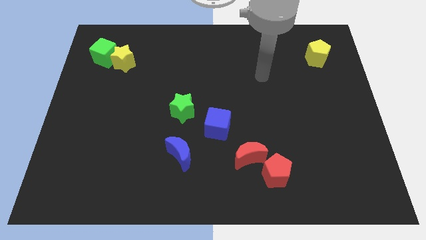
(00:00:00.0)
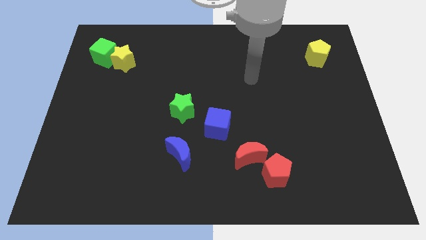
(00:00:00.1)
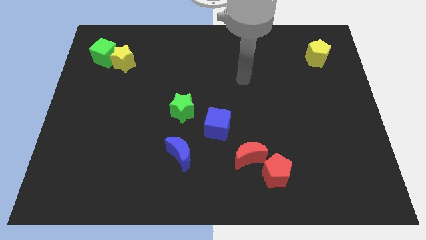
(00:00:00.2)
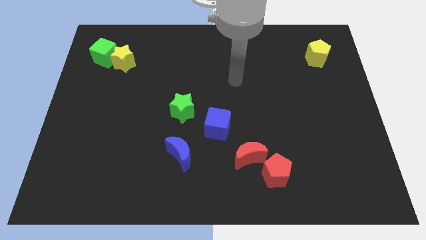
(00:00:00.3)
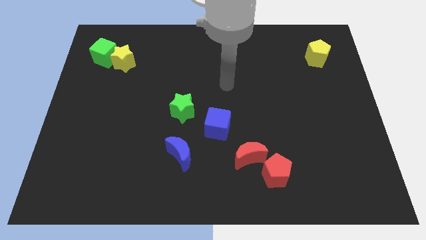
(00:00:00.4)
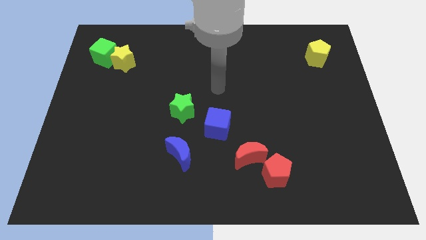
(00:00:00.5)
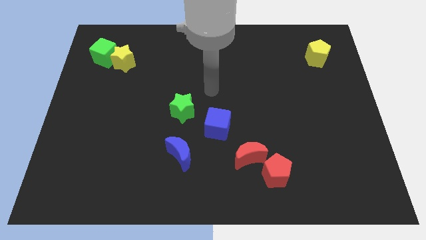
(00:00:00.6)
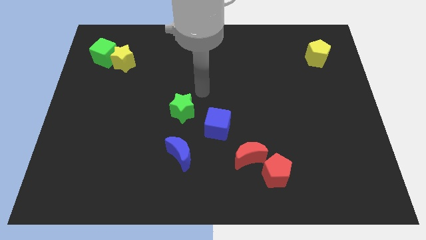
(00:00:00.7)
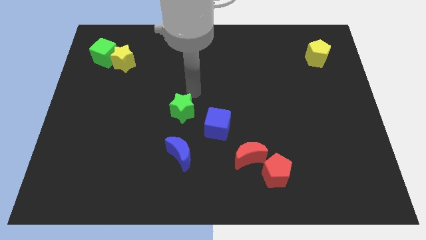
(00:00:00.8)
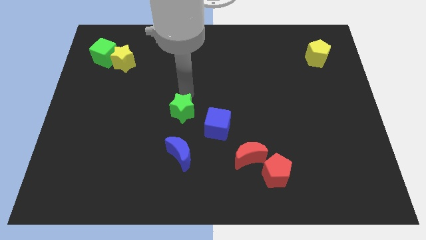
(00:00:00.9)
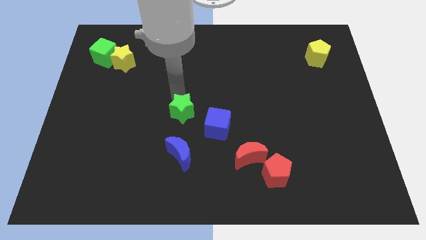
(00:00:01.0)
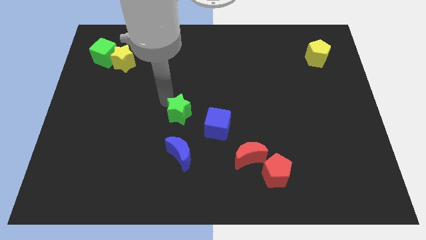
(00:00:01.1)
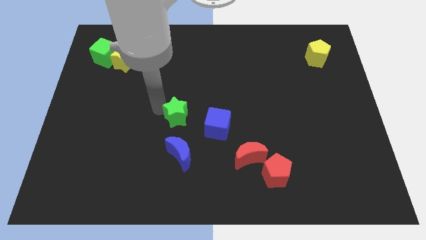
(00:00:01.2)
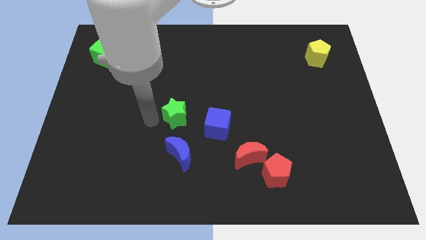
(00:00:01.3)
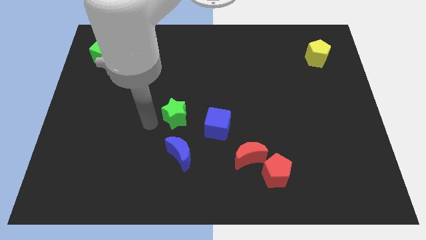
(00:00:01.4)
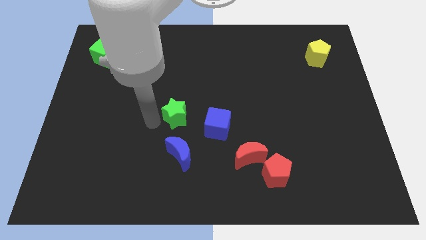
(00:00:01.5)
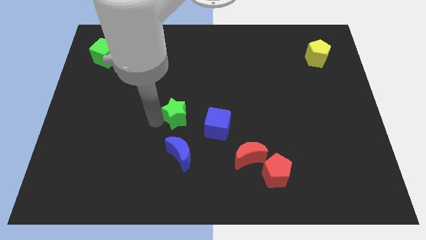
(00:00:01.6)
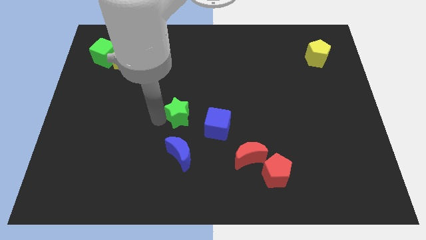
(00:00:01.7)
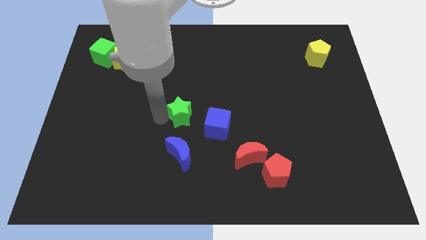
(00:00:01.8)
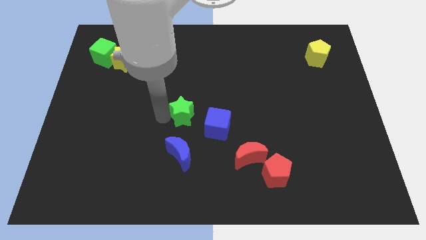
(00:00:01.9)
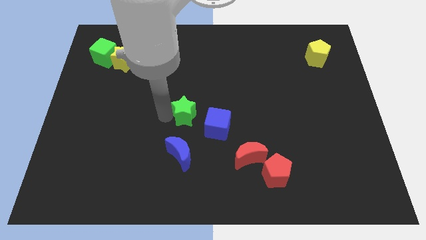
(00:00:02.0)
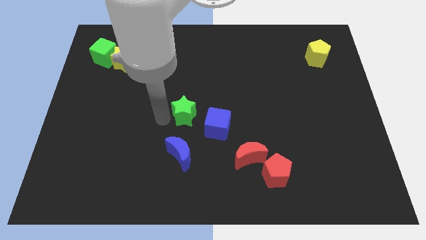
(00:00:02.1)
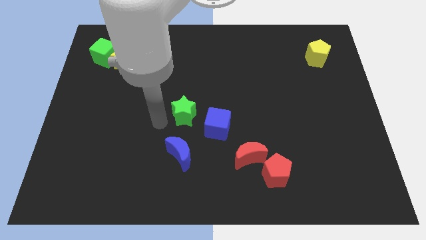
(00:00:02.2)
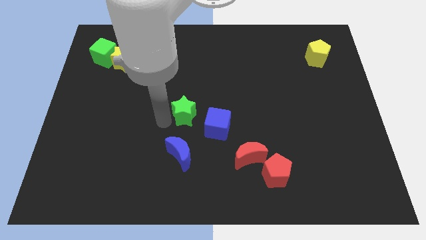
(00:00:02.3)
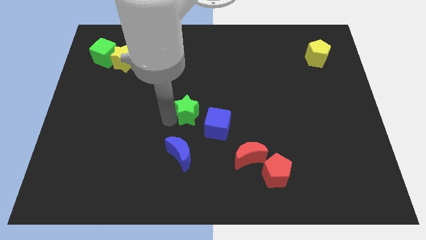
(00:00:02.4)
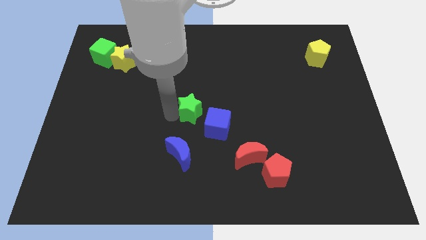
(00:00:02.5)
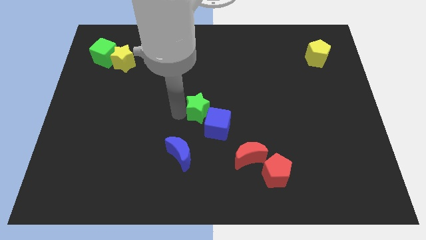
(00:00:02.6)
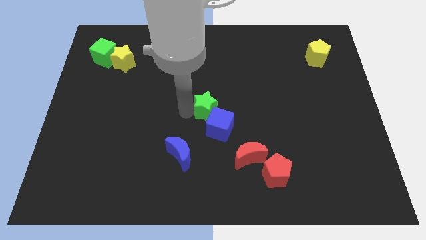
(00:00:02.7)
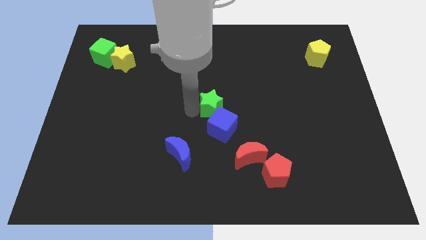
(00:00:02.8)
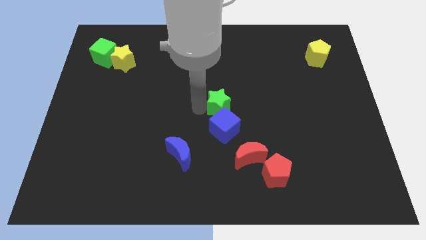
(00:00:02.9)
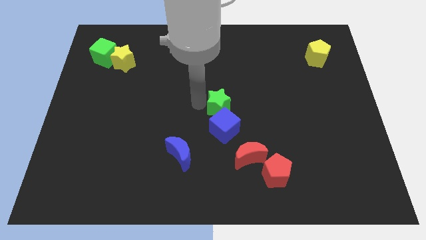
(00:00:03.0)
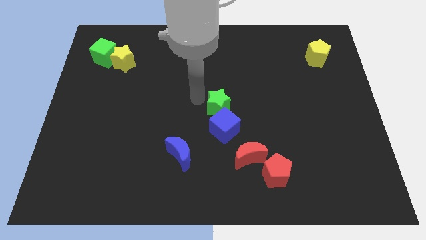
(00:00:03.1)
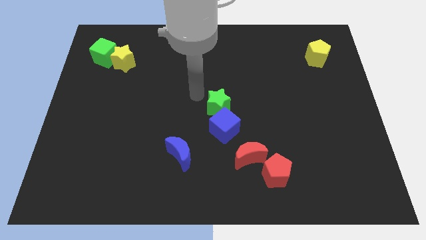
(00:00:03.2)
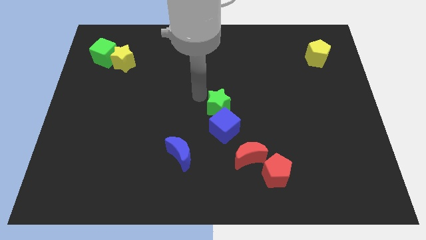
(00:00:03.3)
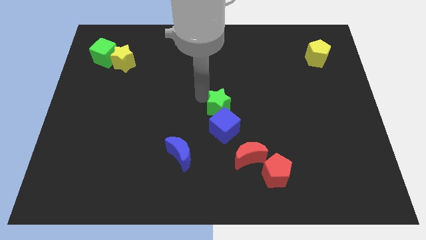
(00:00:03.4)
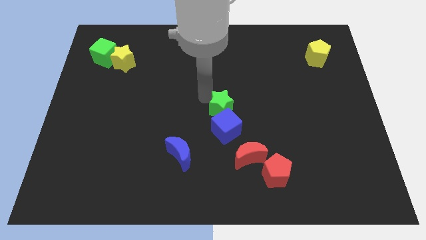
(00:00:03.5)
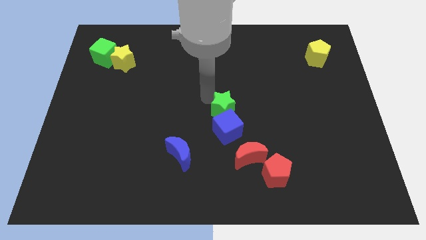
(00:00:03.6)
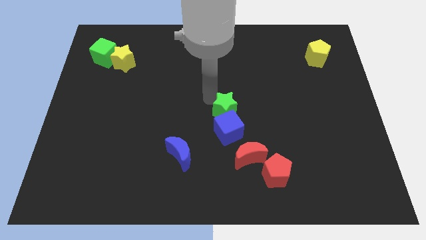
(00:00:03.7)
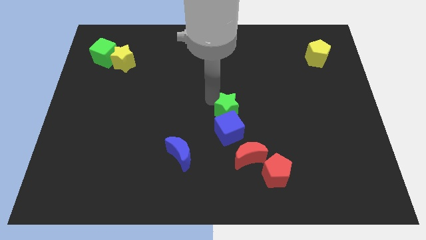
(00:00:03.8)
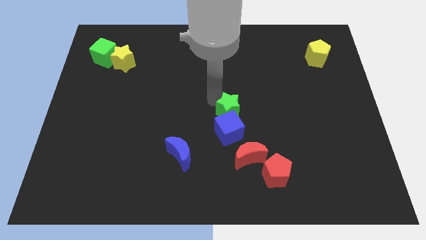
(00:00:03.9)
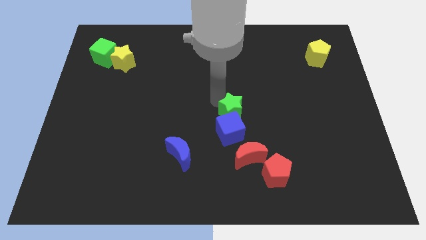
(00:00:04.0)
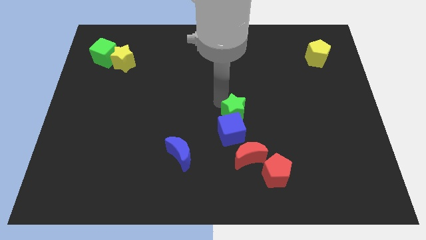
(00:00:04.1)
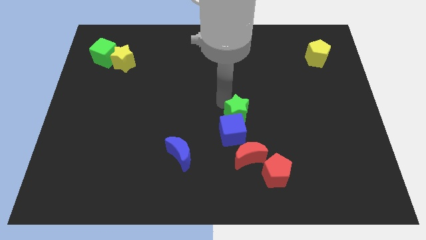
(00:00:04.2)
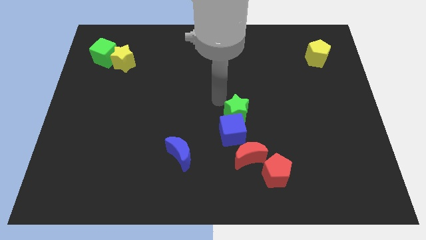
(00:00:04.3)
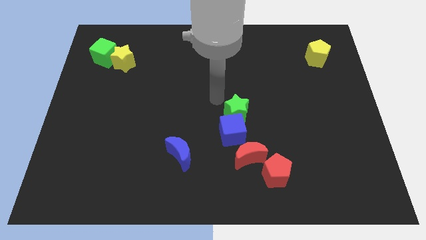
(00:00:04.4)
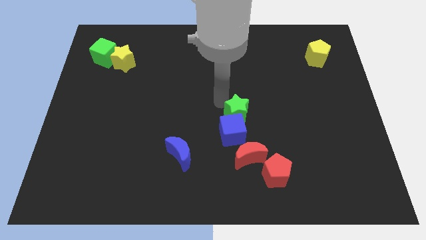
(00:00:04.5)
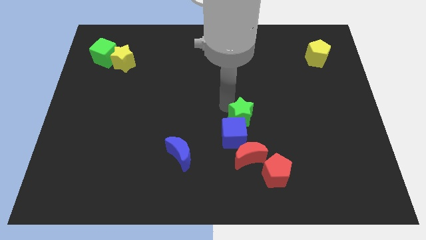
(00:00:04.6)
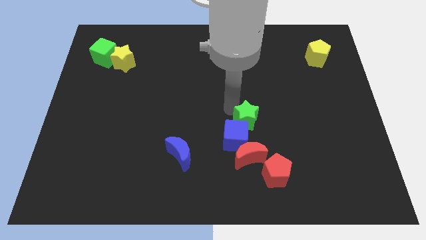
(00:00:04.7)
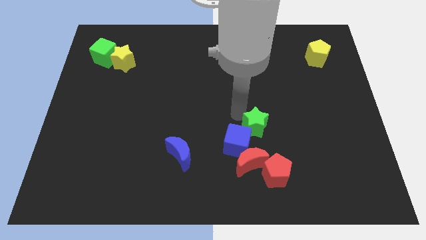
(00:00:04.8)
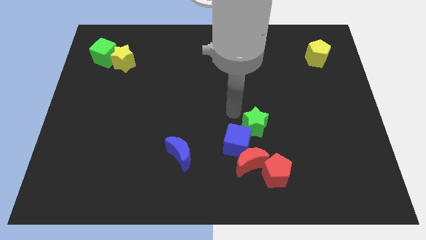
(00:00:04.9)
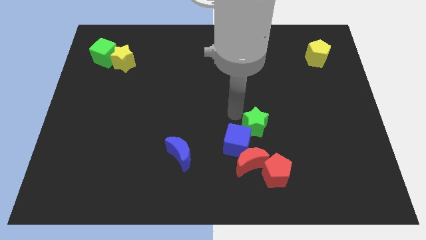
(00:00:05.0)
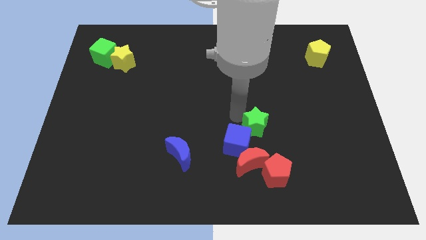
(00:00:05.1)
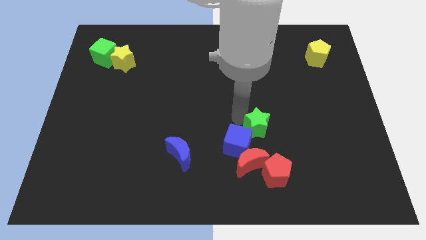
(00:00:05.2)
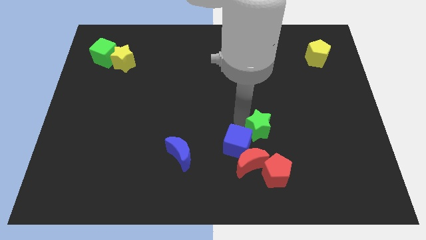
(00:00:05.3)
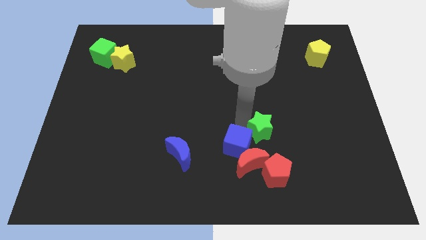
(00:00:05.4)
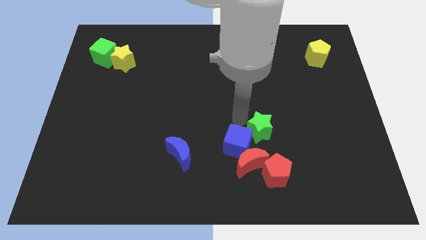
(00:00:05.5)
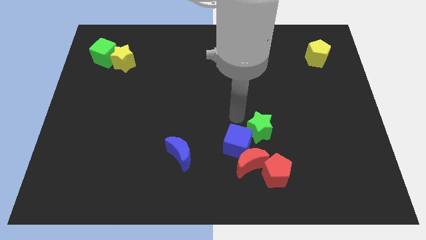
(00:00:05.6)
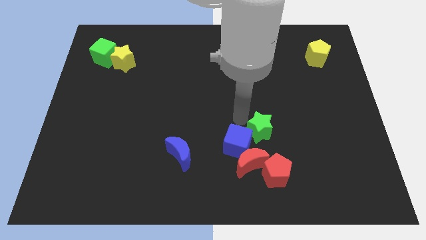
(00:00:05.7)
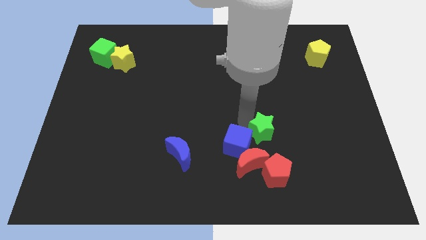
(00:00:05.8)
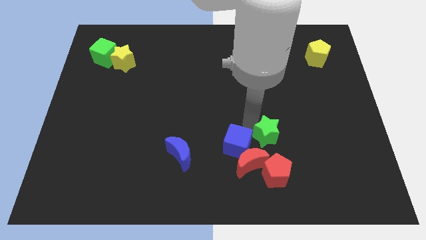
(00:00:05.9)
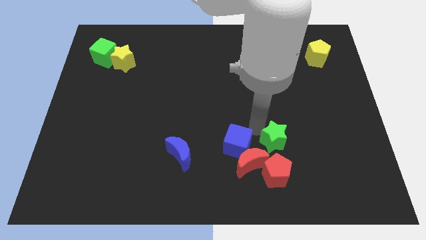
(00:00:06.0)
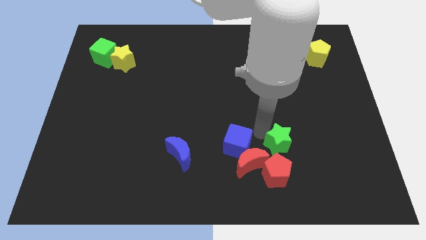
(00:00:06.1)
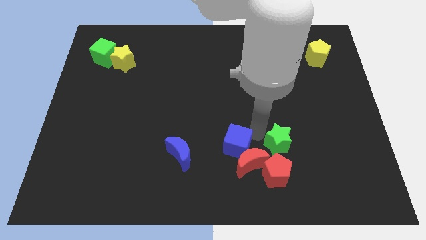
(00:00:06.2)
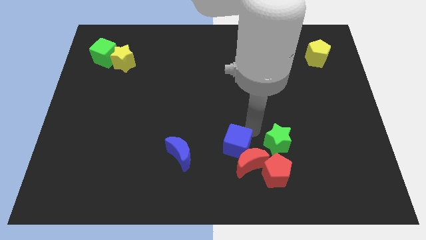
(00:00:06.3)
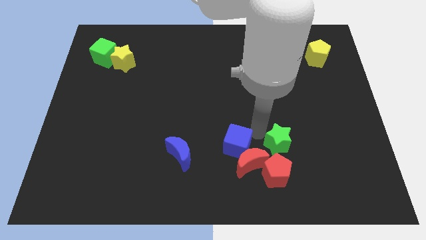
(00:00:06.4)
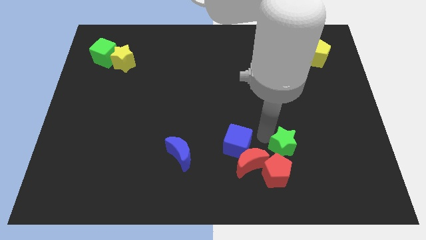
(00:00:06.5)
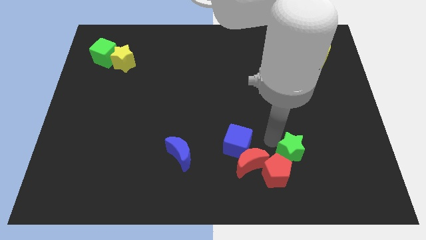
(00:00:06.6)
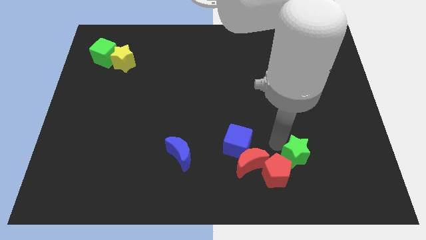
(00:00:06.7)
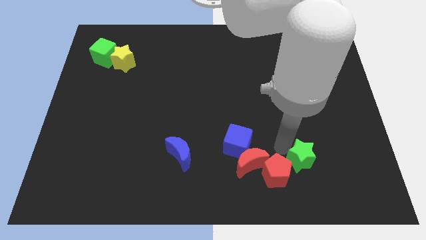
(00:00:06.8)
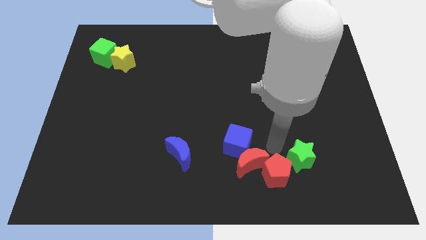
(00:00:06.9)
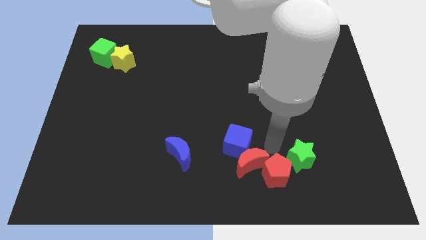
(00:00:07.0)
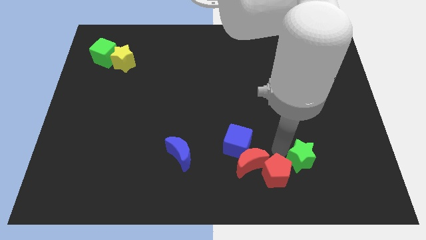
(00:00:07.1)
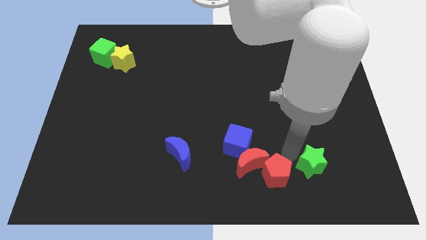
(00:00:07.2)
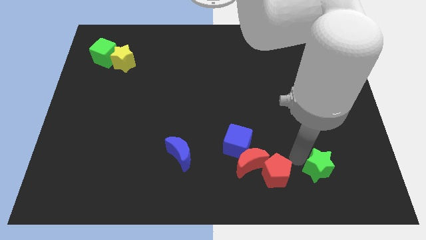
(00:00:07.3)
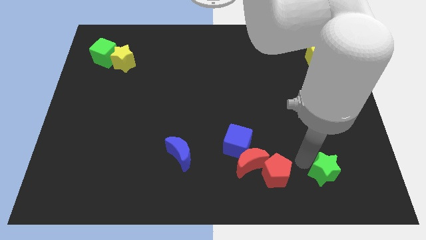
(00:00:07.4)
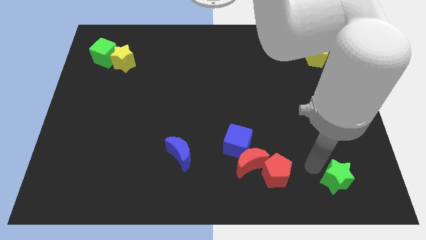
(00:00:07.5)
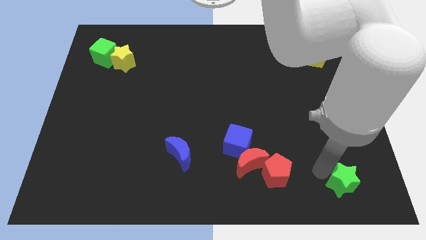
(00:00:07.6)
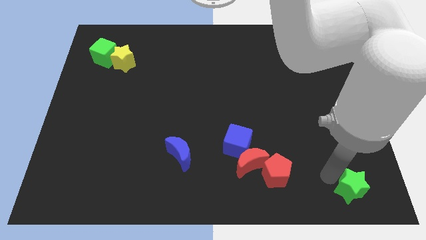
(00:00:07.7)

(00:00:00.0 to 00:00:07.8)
push the green star to the bottom right of the board
